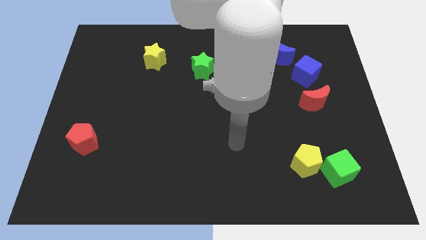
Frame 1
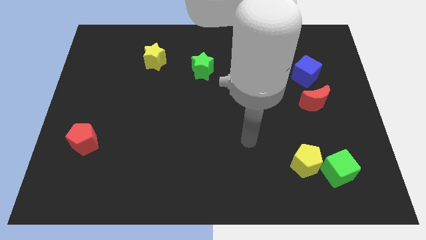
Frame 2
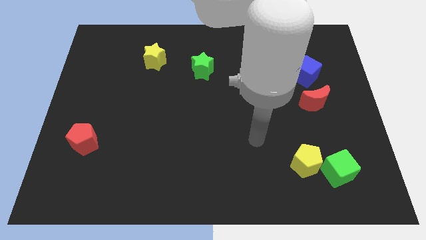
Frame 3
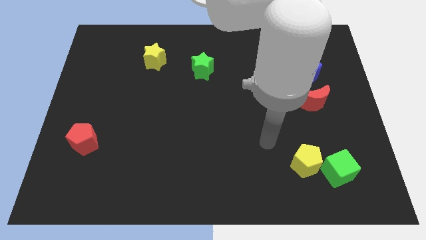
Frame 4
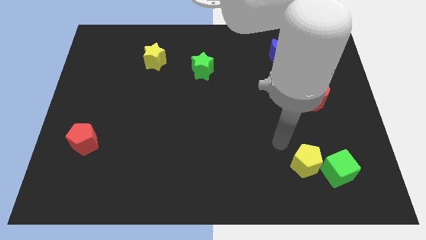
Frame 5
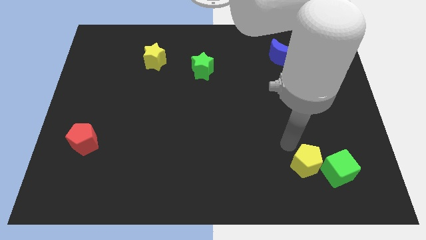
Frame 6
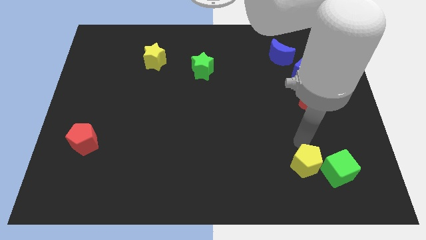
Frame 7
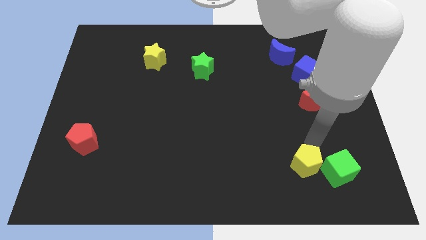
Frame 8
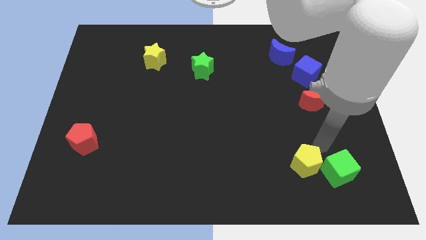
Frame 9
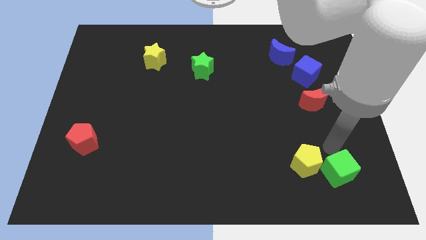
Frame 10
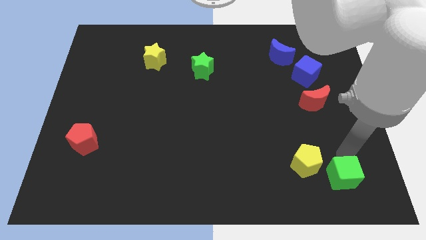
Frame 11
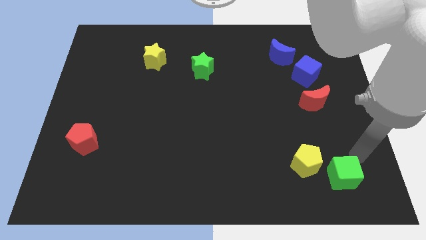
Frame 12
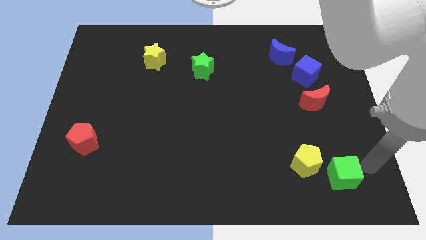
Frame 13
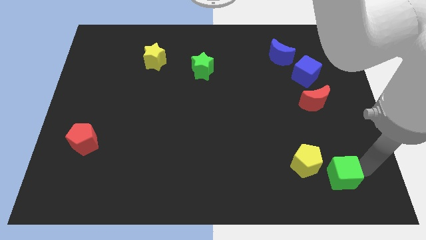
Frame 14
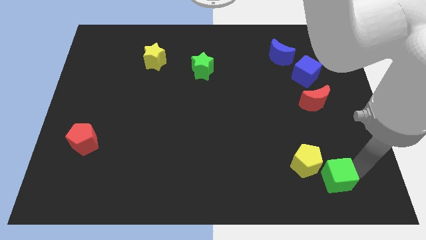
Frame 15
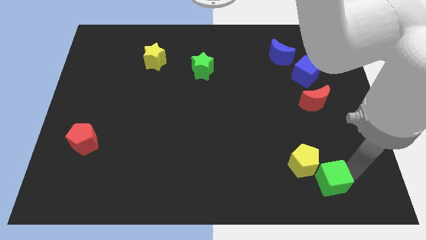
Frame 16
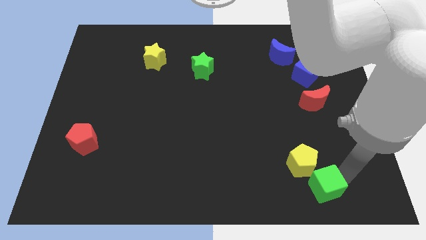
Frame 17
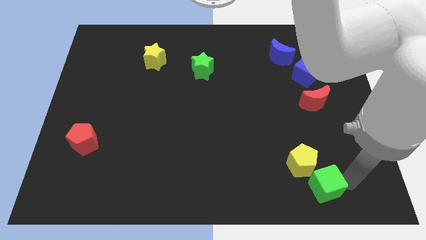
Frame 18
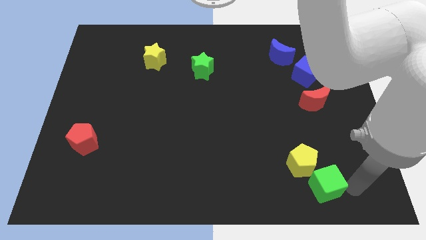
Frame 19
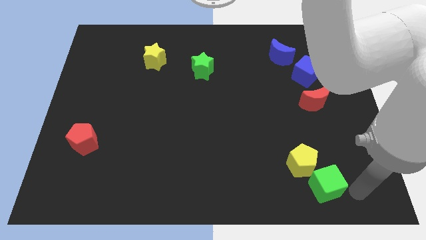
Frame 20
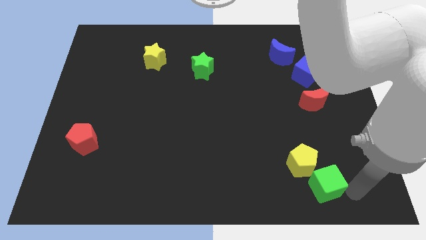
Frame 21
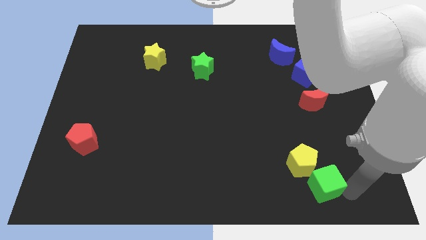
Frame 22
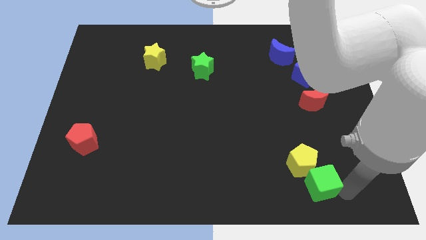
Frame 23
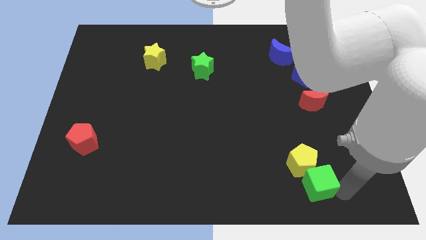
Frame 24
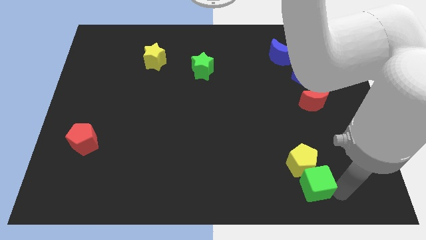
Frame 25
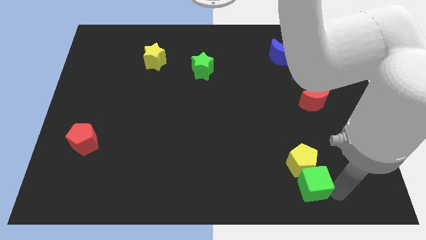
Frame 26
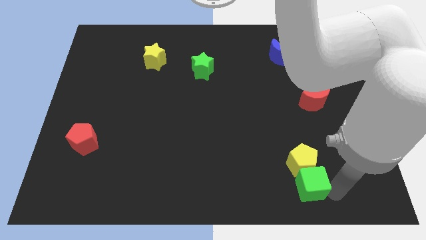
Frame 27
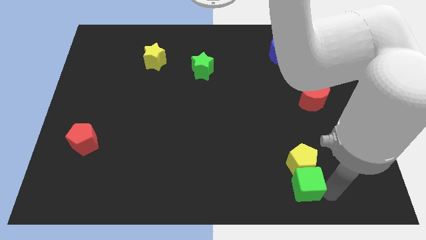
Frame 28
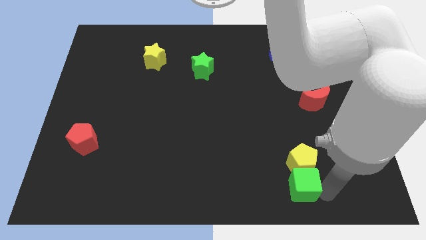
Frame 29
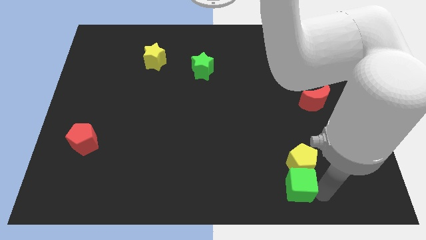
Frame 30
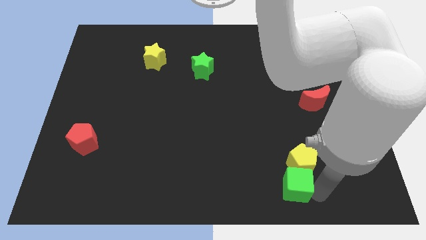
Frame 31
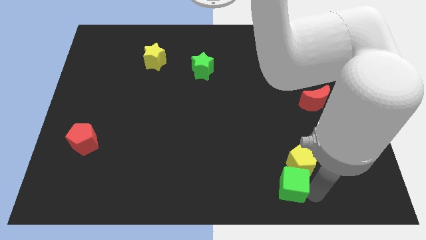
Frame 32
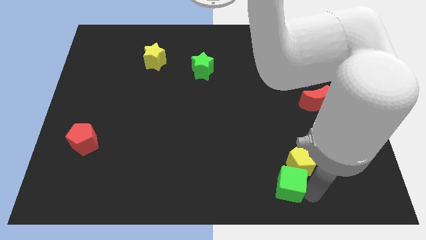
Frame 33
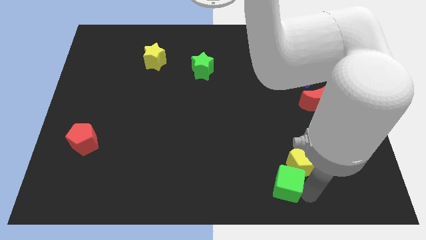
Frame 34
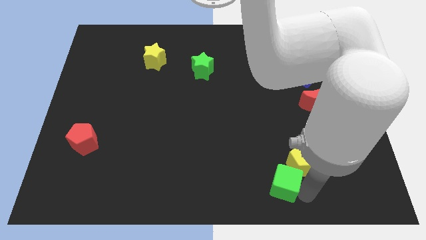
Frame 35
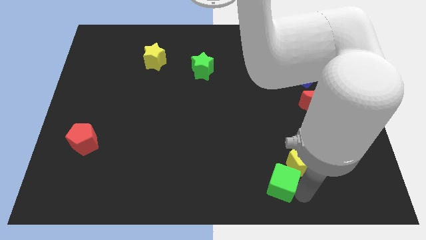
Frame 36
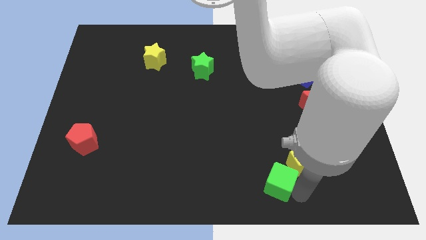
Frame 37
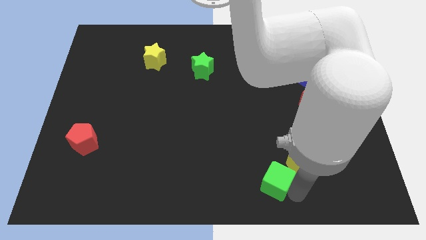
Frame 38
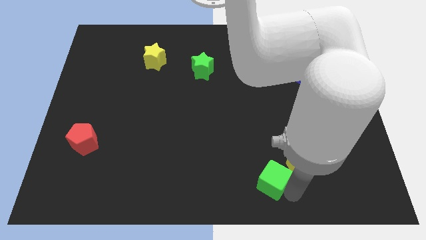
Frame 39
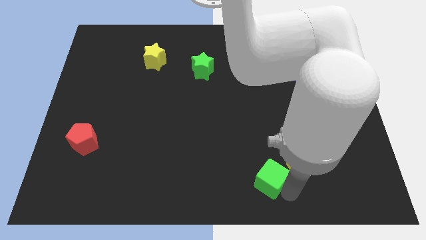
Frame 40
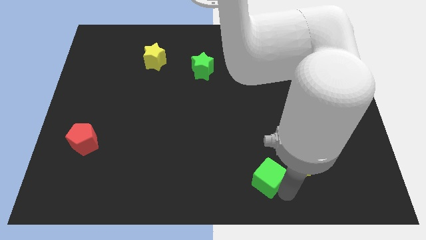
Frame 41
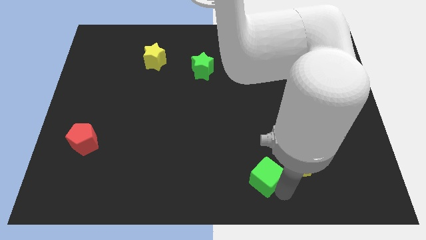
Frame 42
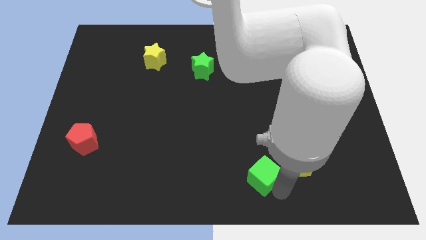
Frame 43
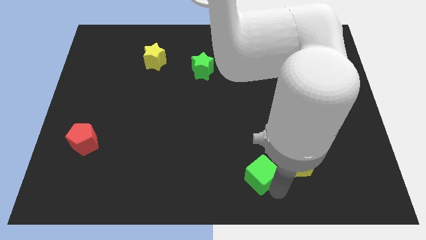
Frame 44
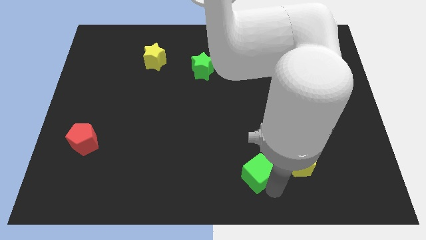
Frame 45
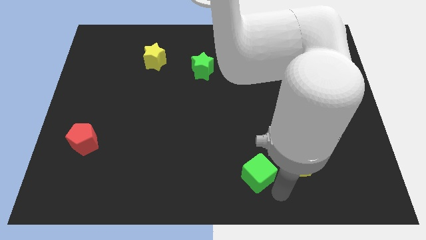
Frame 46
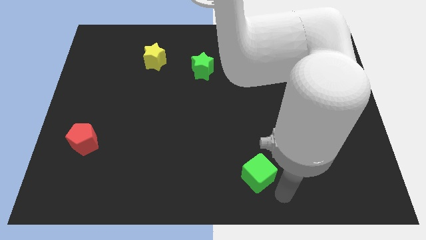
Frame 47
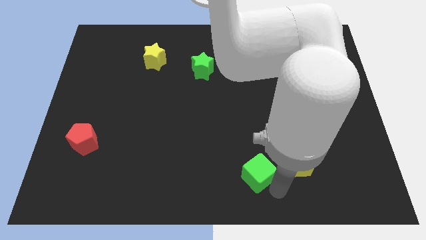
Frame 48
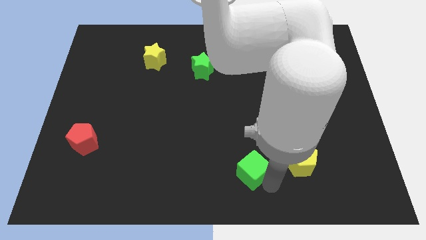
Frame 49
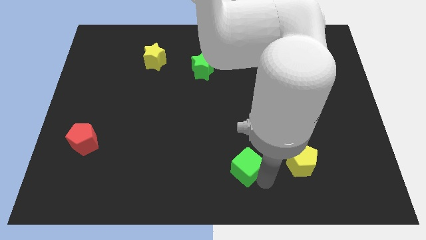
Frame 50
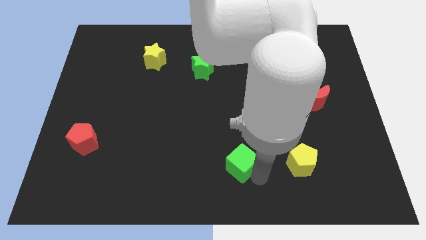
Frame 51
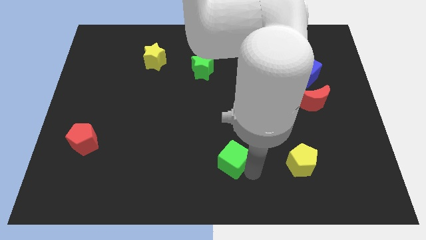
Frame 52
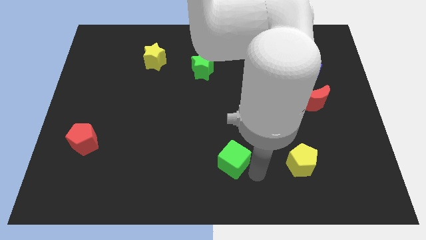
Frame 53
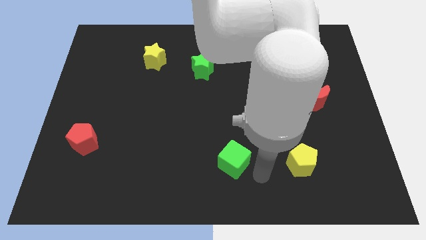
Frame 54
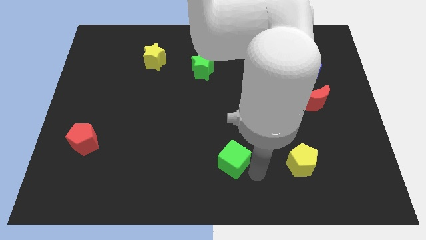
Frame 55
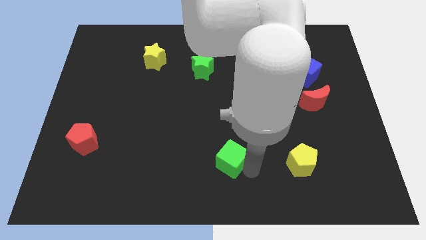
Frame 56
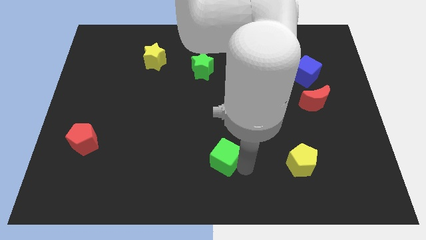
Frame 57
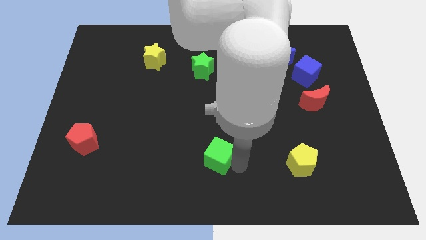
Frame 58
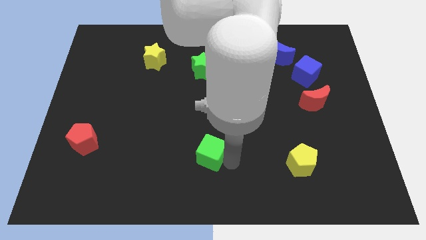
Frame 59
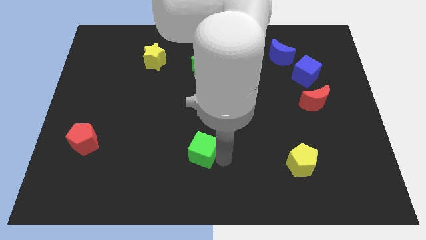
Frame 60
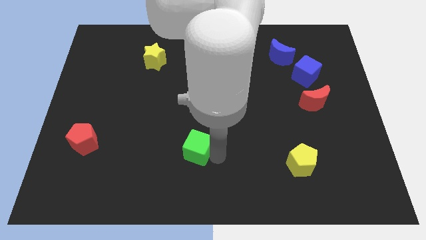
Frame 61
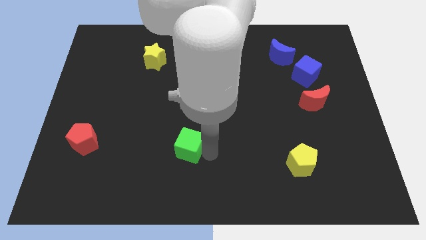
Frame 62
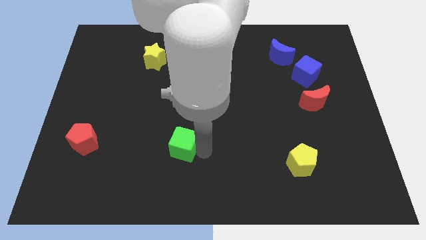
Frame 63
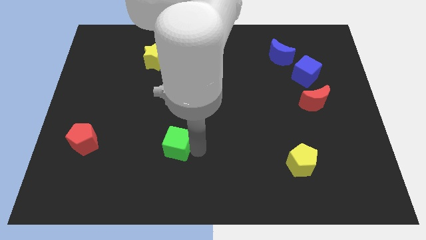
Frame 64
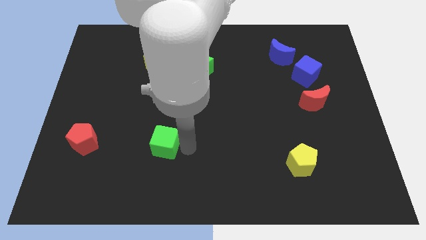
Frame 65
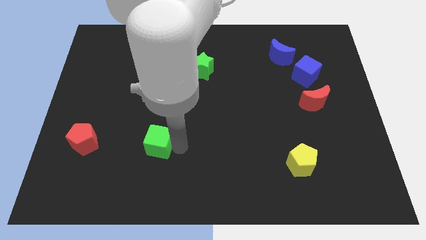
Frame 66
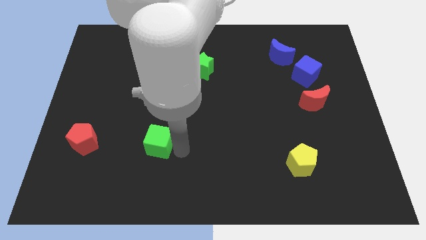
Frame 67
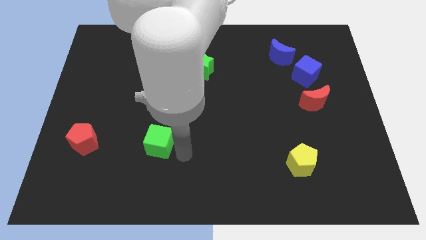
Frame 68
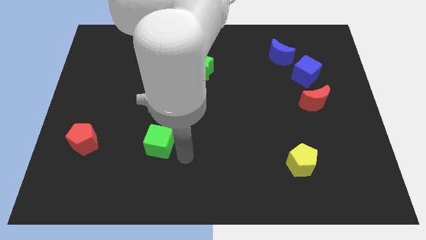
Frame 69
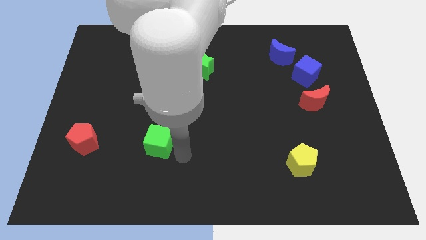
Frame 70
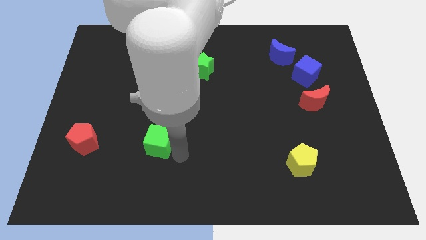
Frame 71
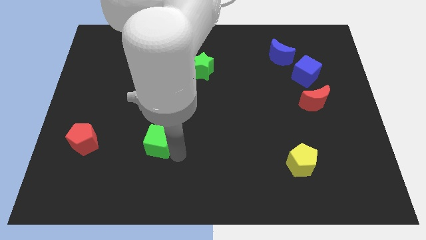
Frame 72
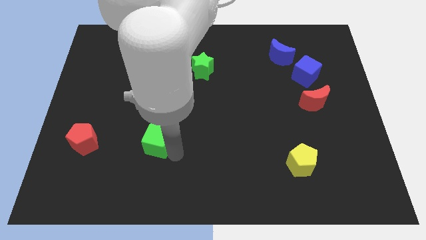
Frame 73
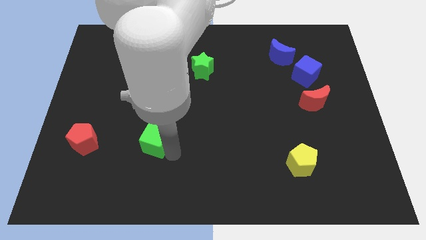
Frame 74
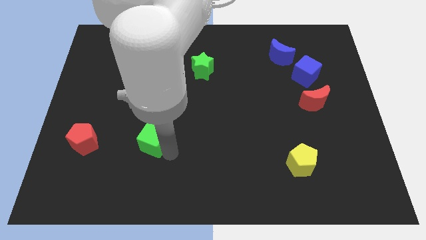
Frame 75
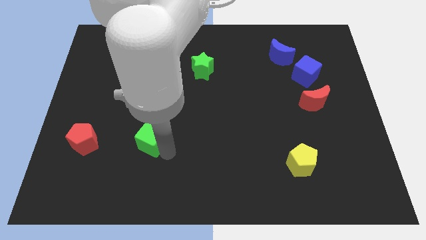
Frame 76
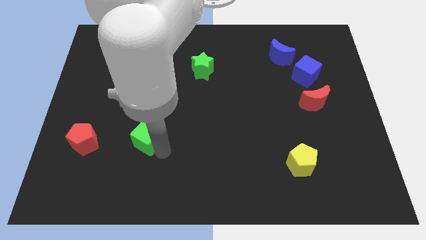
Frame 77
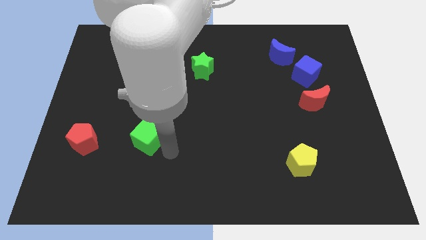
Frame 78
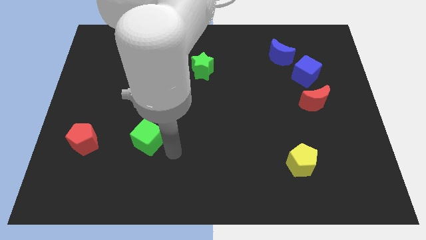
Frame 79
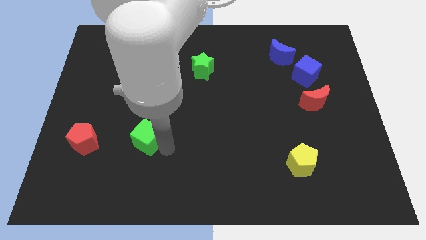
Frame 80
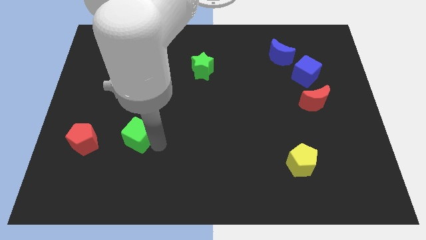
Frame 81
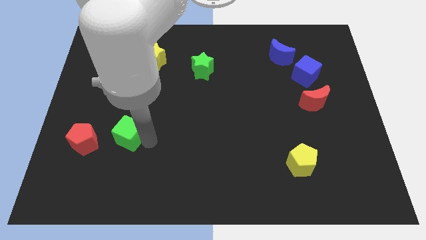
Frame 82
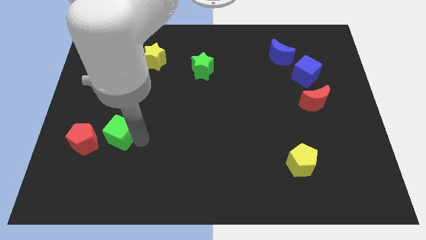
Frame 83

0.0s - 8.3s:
put the green cube to the top right side of the red pentagon

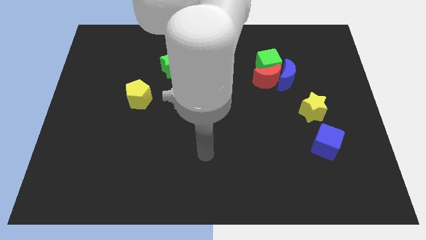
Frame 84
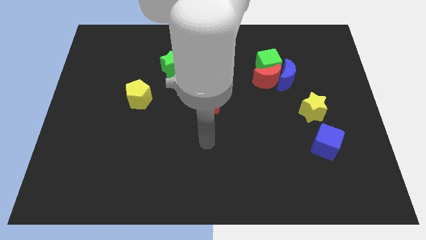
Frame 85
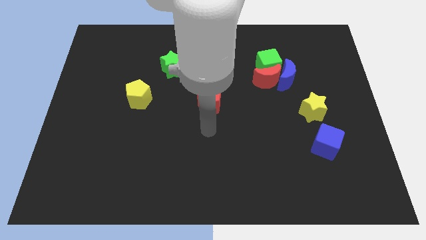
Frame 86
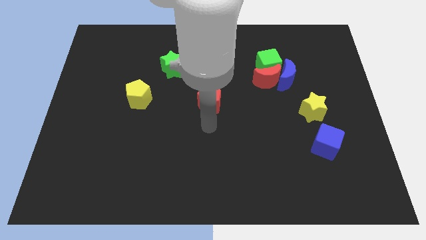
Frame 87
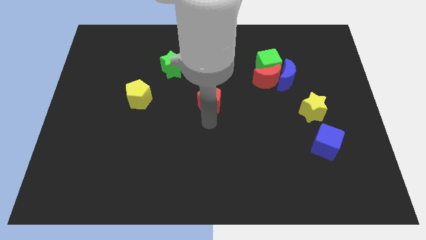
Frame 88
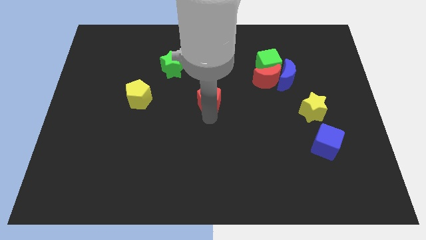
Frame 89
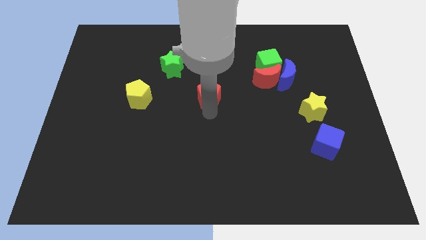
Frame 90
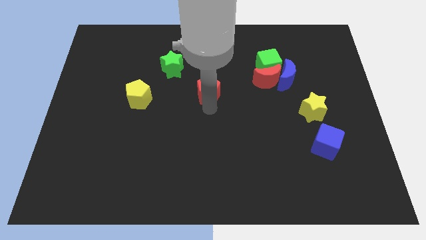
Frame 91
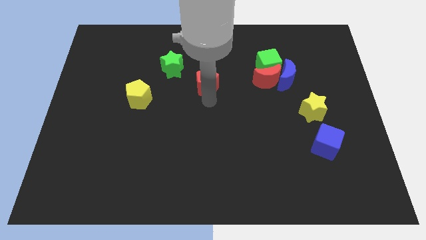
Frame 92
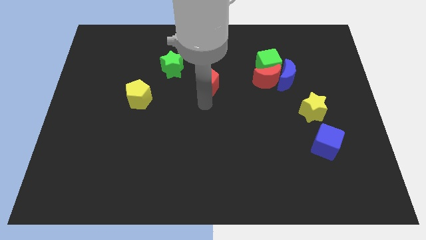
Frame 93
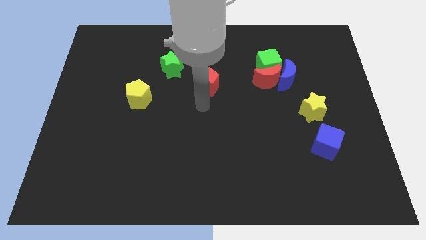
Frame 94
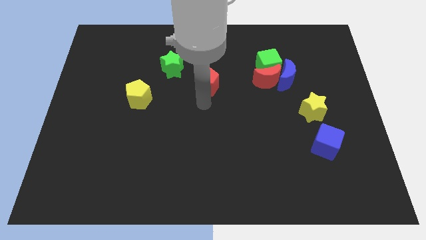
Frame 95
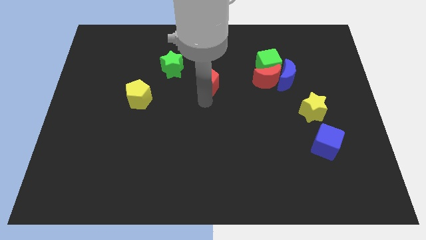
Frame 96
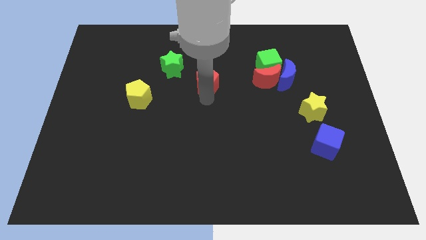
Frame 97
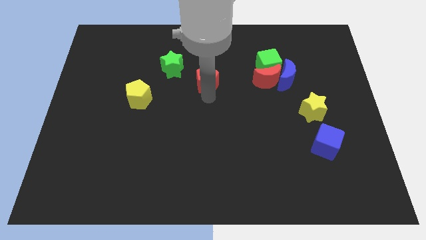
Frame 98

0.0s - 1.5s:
put the red pentagon to the right of the green star
